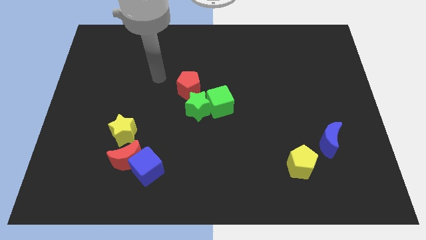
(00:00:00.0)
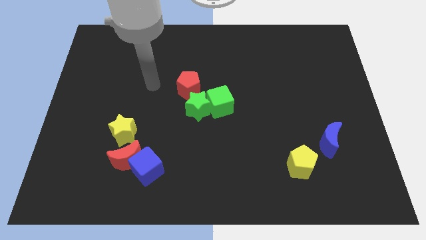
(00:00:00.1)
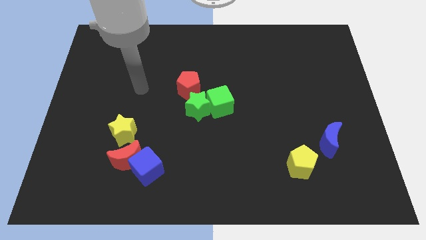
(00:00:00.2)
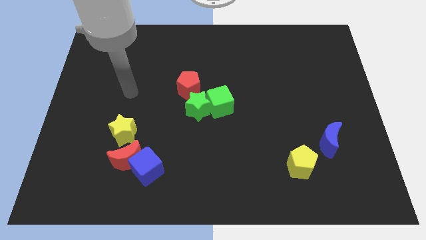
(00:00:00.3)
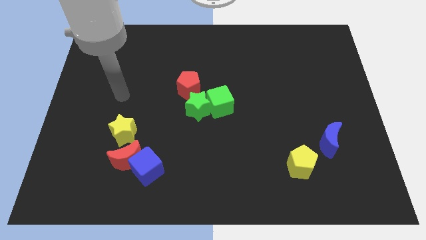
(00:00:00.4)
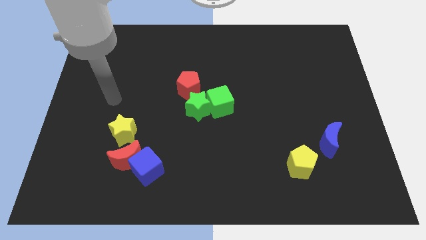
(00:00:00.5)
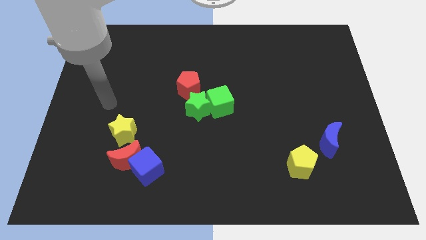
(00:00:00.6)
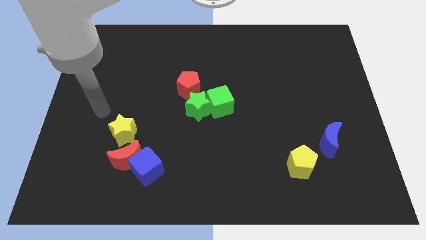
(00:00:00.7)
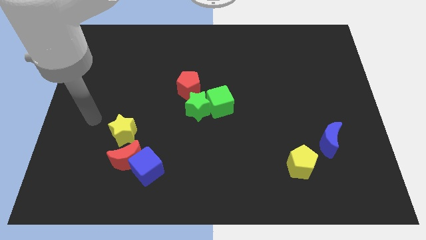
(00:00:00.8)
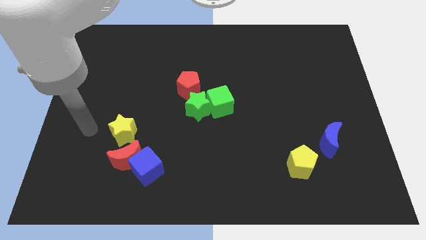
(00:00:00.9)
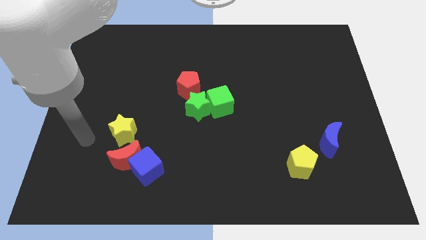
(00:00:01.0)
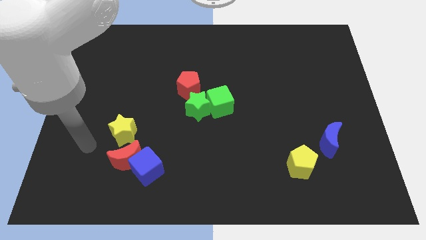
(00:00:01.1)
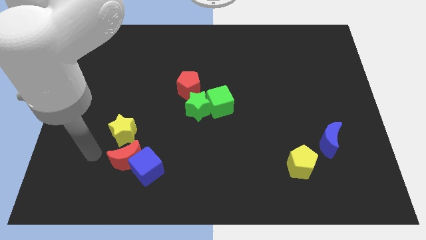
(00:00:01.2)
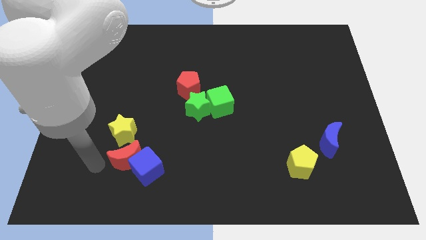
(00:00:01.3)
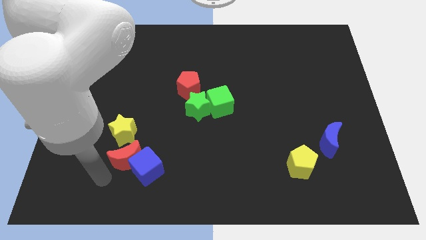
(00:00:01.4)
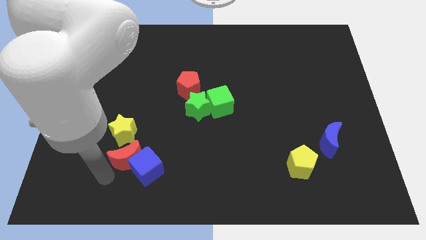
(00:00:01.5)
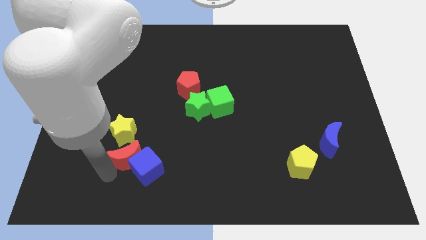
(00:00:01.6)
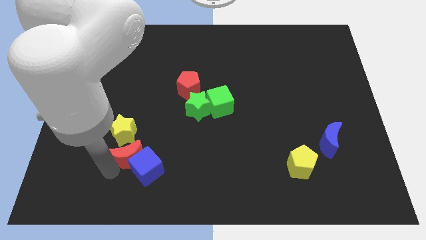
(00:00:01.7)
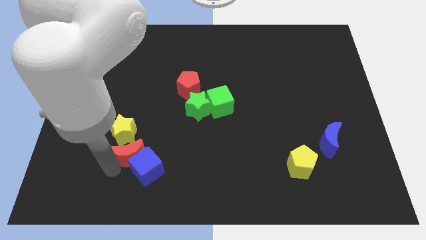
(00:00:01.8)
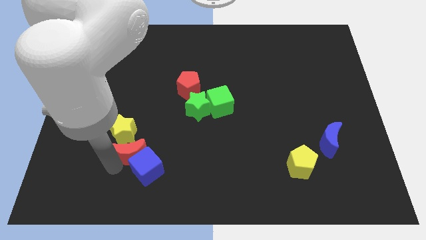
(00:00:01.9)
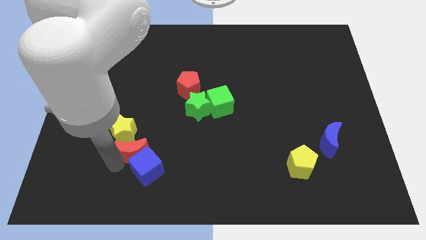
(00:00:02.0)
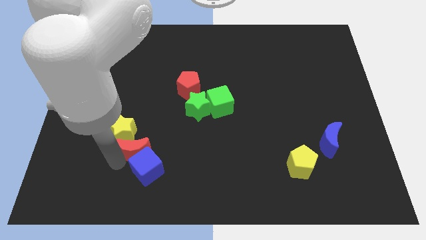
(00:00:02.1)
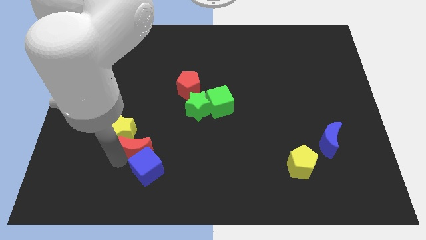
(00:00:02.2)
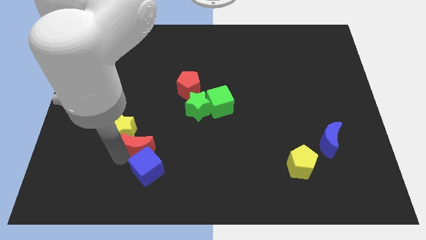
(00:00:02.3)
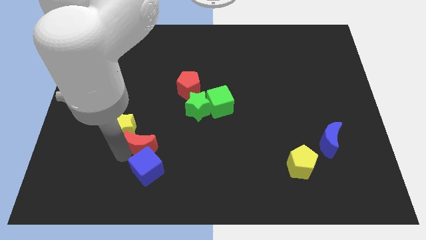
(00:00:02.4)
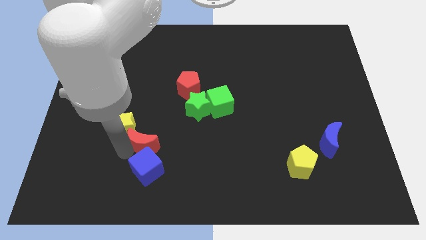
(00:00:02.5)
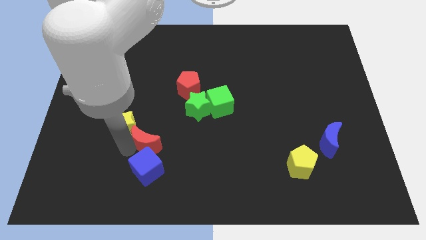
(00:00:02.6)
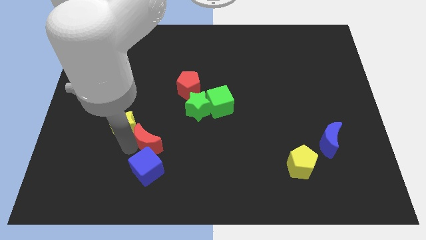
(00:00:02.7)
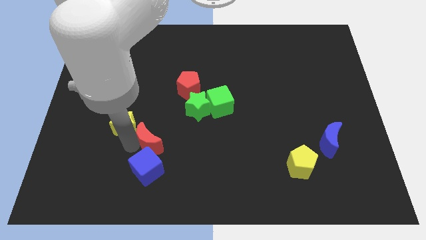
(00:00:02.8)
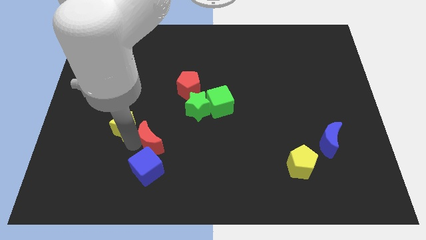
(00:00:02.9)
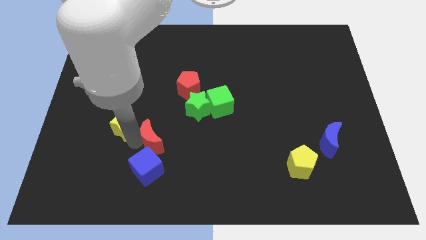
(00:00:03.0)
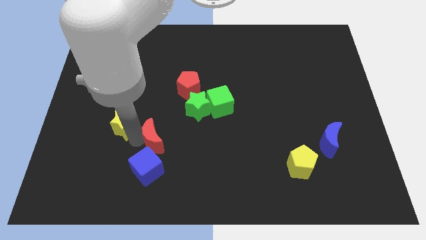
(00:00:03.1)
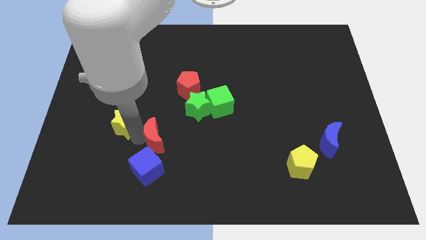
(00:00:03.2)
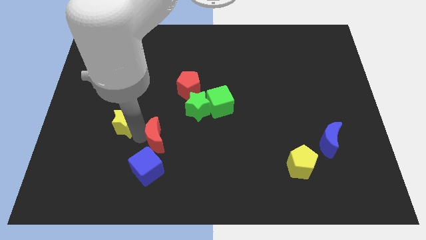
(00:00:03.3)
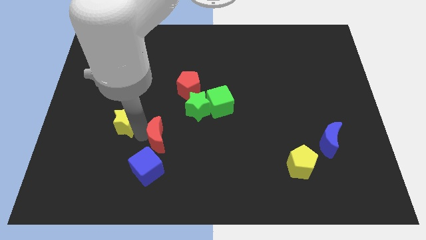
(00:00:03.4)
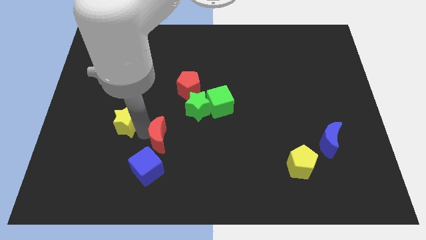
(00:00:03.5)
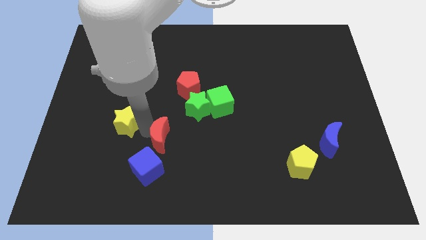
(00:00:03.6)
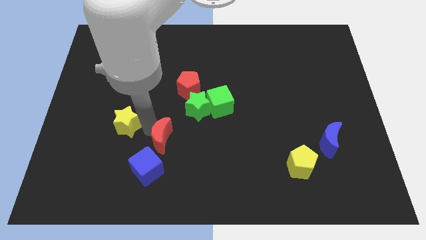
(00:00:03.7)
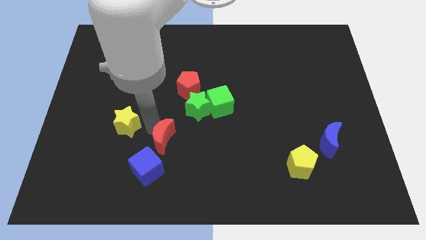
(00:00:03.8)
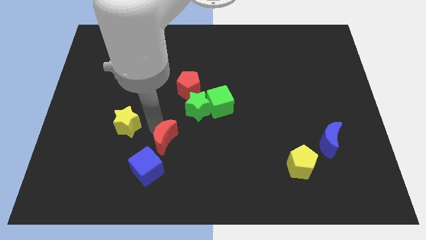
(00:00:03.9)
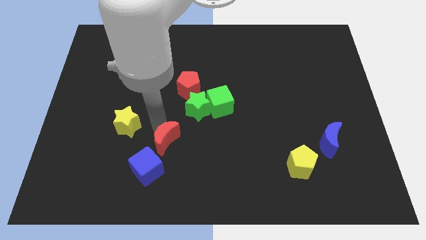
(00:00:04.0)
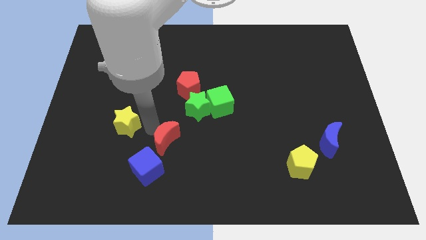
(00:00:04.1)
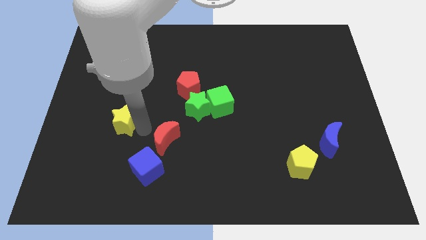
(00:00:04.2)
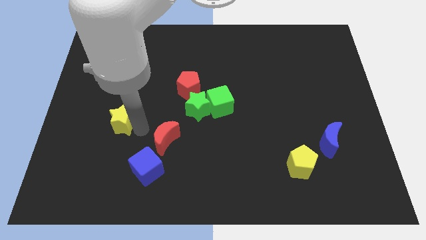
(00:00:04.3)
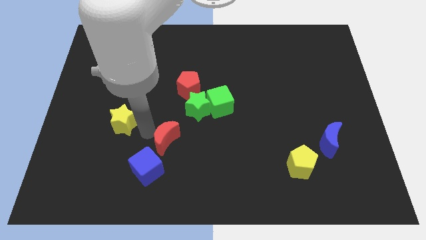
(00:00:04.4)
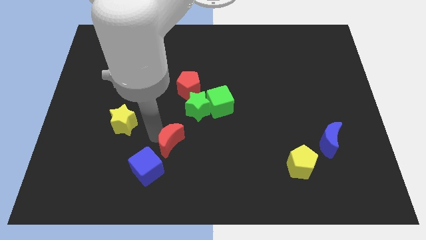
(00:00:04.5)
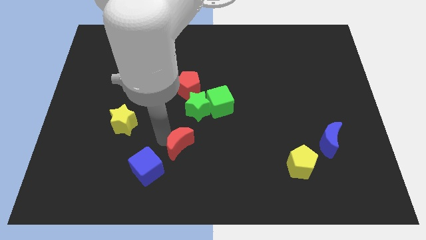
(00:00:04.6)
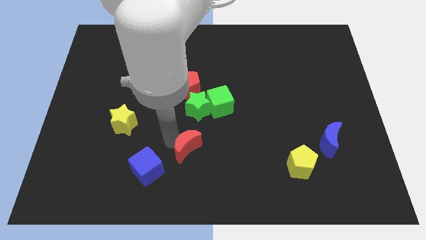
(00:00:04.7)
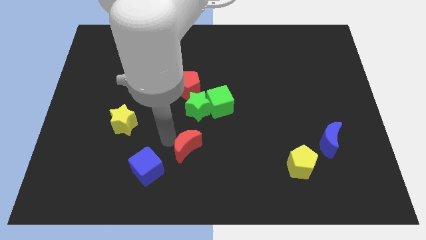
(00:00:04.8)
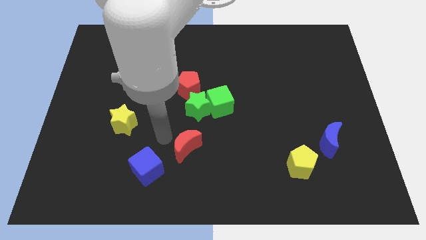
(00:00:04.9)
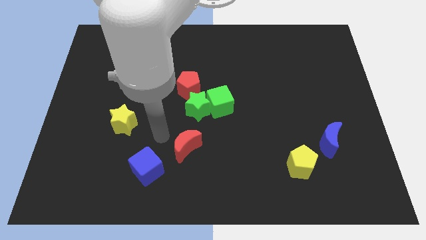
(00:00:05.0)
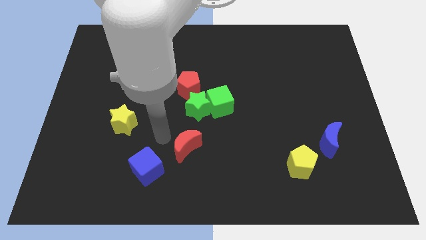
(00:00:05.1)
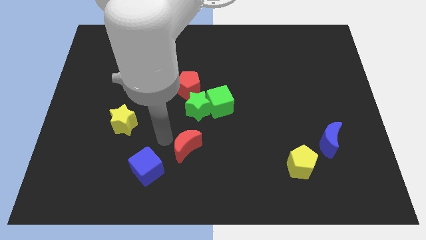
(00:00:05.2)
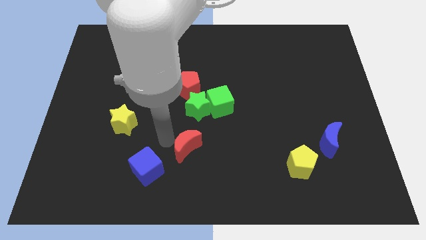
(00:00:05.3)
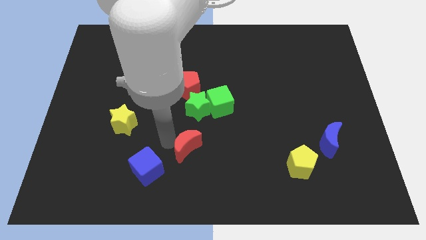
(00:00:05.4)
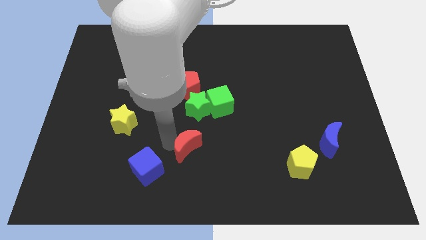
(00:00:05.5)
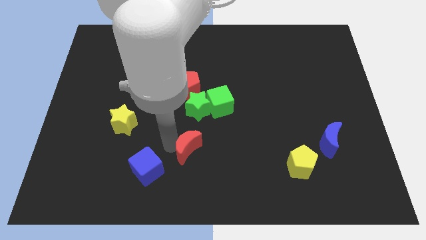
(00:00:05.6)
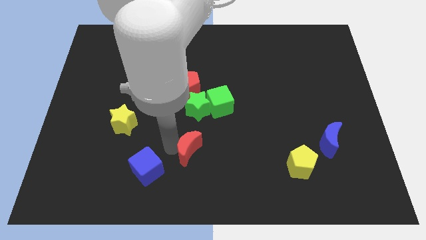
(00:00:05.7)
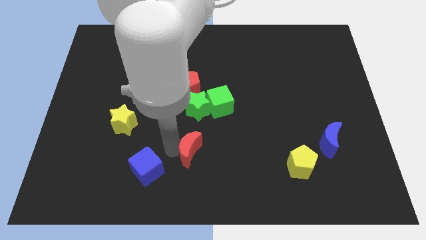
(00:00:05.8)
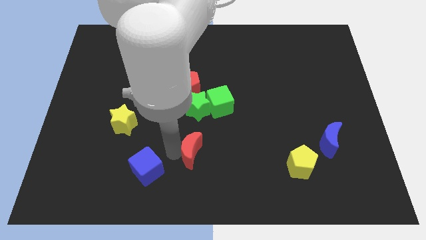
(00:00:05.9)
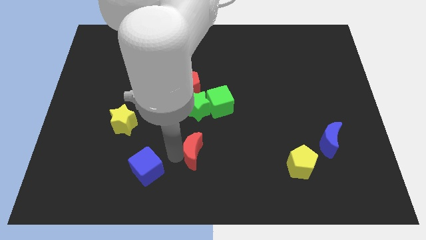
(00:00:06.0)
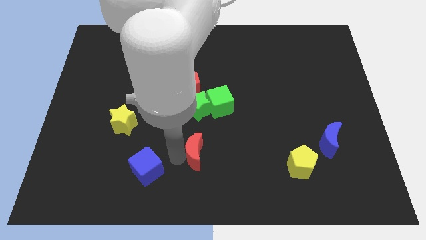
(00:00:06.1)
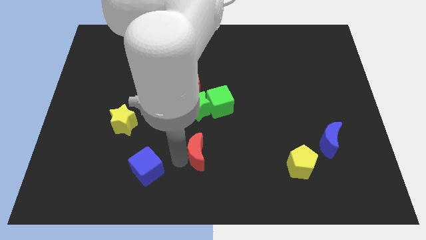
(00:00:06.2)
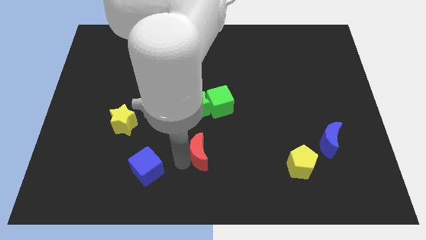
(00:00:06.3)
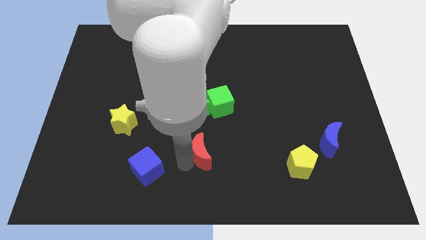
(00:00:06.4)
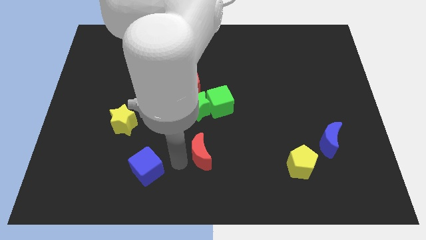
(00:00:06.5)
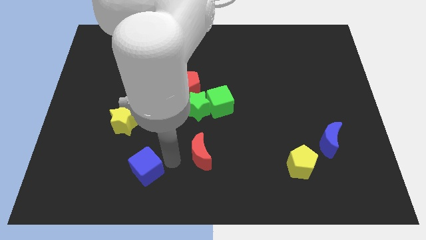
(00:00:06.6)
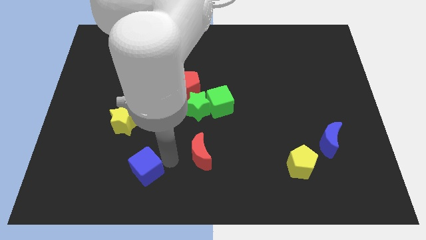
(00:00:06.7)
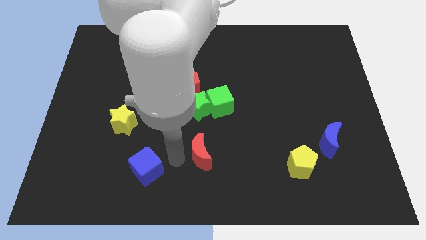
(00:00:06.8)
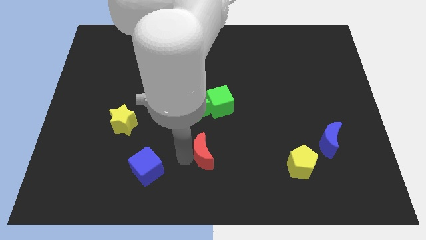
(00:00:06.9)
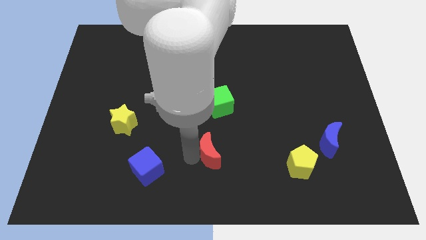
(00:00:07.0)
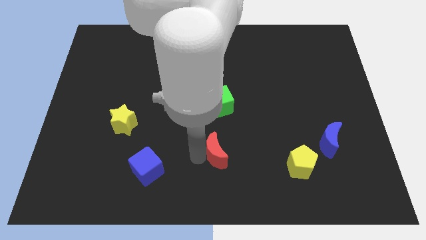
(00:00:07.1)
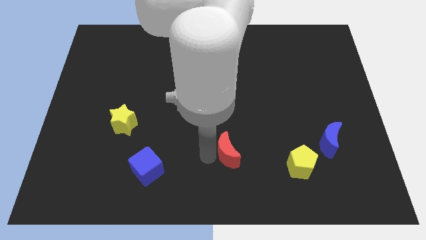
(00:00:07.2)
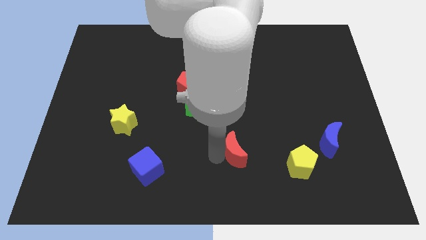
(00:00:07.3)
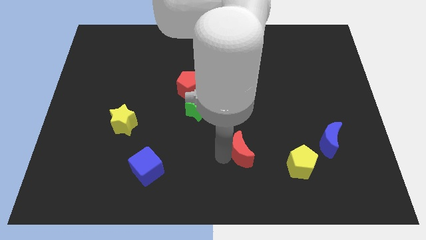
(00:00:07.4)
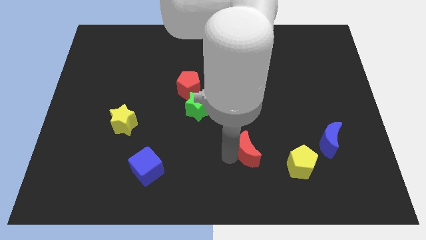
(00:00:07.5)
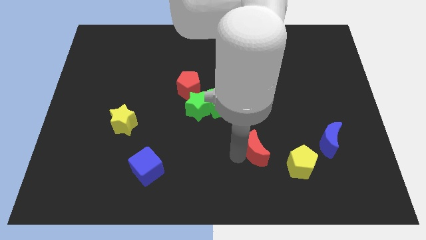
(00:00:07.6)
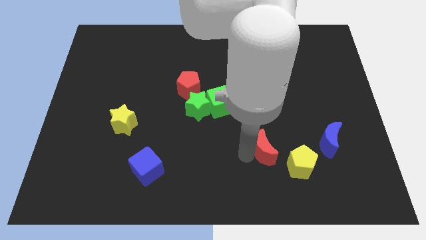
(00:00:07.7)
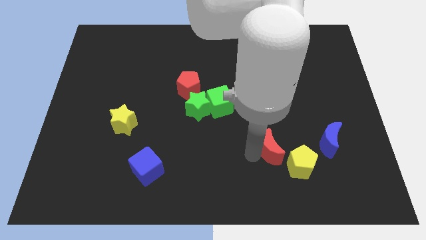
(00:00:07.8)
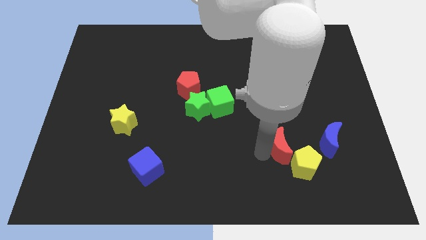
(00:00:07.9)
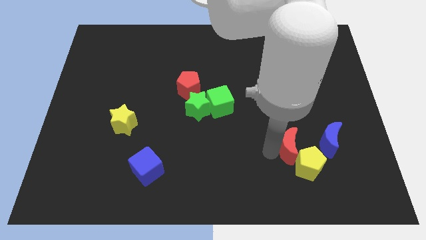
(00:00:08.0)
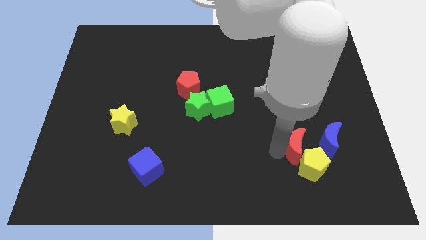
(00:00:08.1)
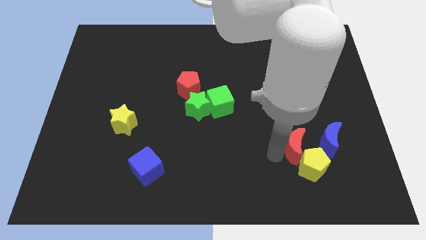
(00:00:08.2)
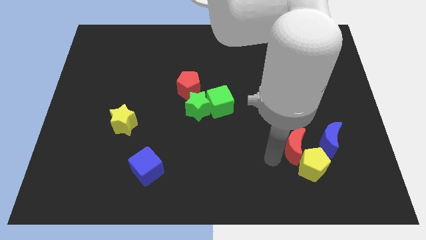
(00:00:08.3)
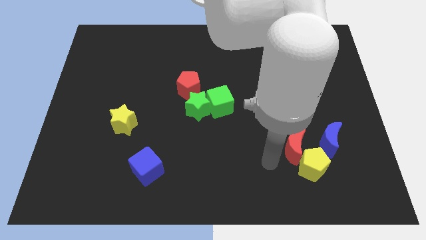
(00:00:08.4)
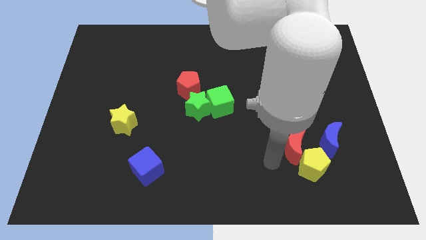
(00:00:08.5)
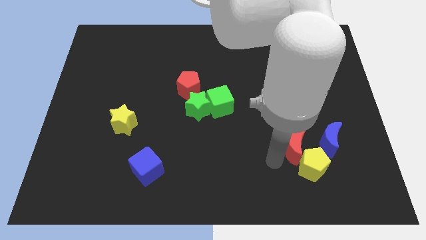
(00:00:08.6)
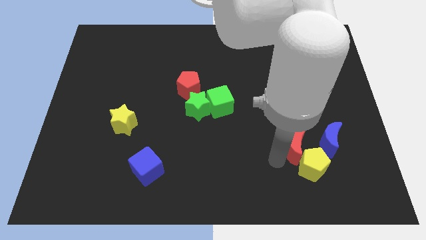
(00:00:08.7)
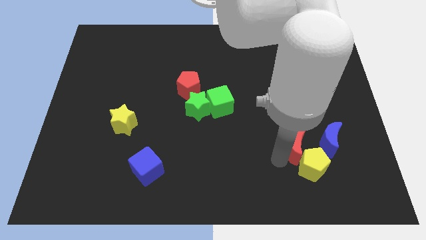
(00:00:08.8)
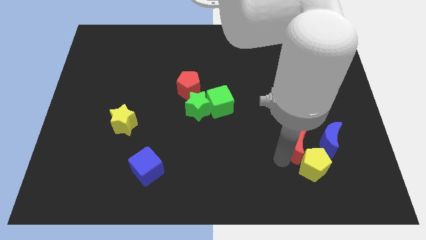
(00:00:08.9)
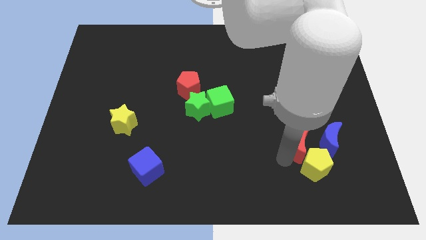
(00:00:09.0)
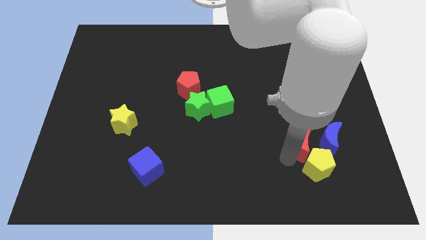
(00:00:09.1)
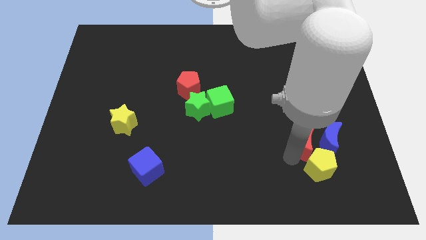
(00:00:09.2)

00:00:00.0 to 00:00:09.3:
put the red moon towards the blue moon
